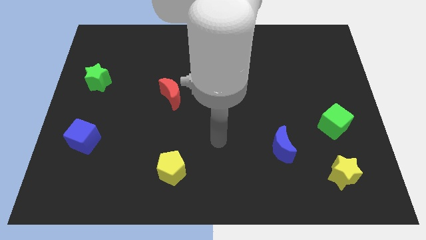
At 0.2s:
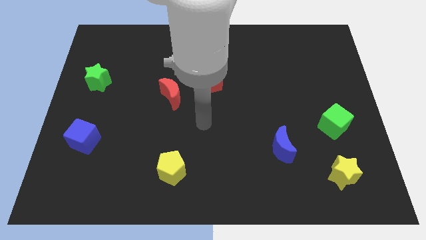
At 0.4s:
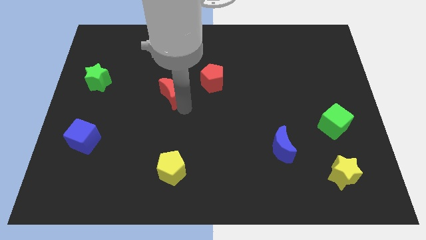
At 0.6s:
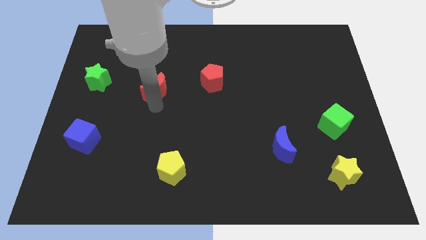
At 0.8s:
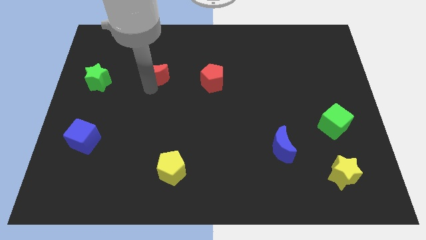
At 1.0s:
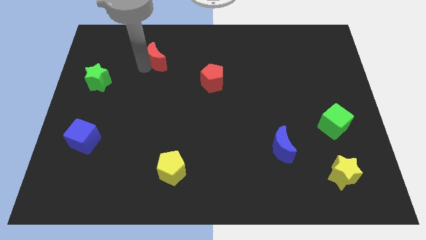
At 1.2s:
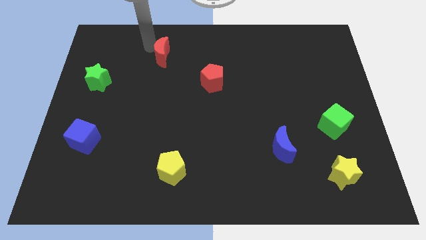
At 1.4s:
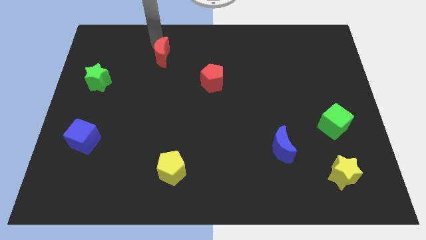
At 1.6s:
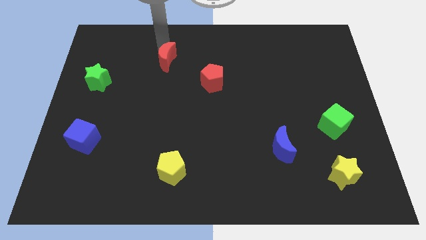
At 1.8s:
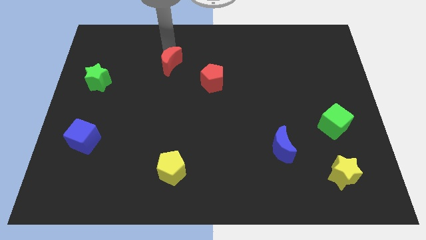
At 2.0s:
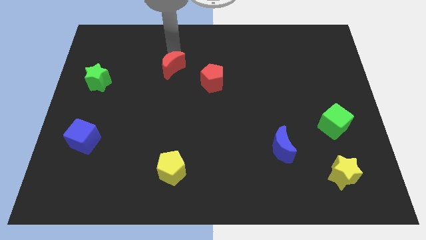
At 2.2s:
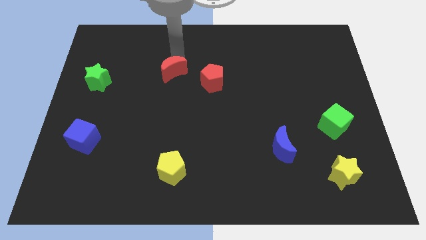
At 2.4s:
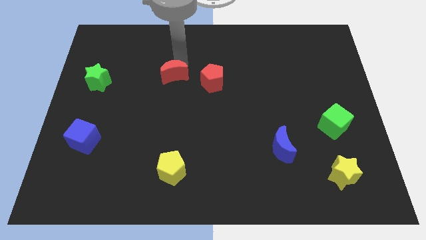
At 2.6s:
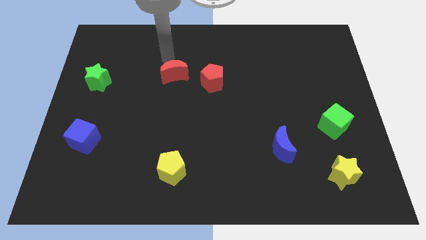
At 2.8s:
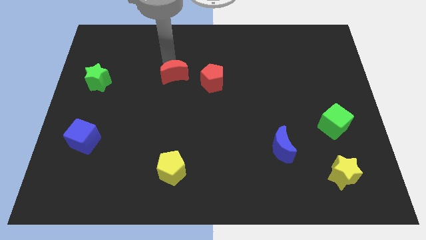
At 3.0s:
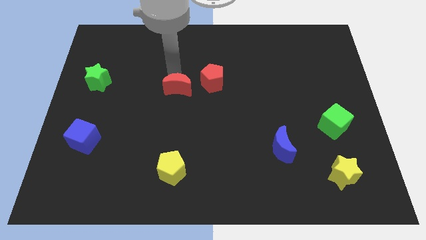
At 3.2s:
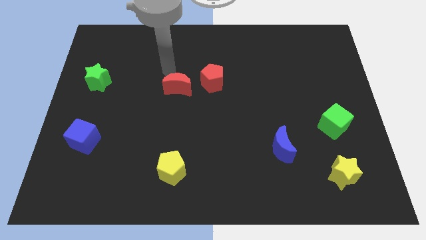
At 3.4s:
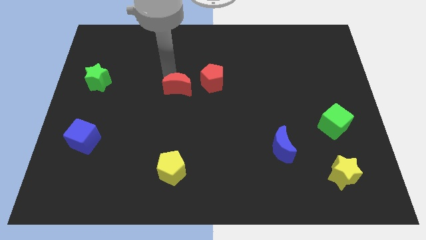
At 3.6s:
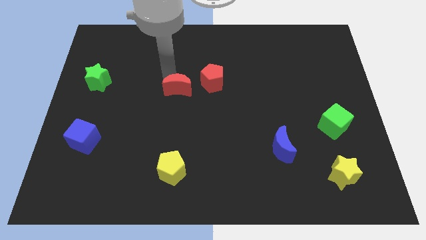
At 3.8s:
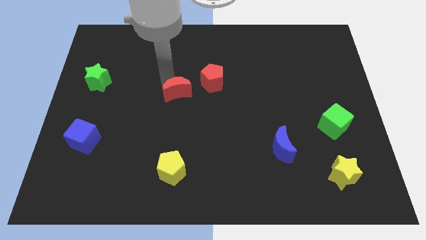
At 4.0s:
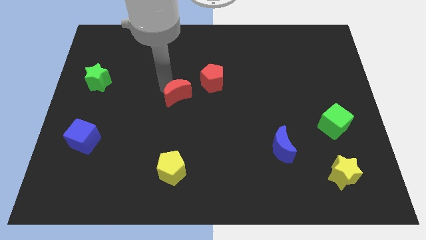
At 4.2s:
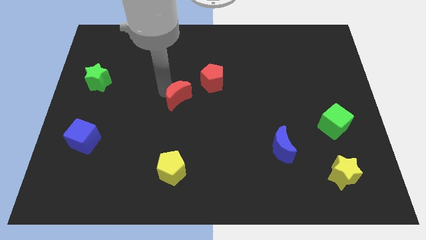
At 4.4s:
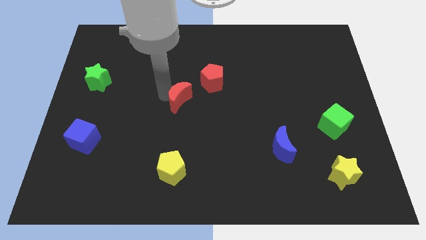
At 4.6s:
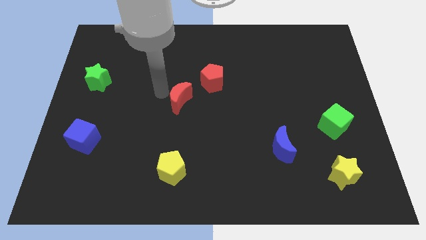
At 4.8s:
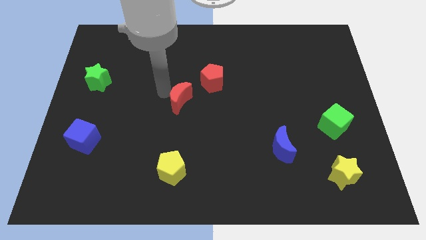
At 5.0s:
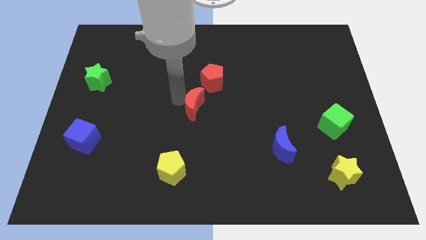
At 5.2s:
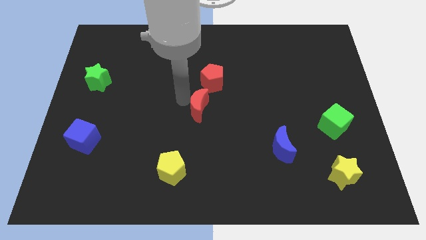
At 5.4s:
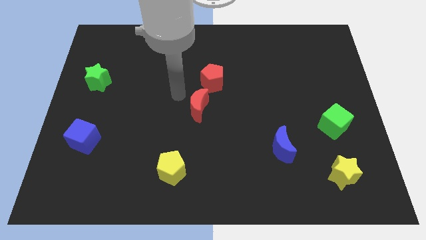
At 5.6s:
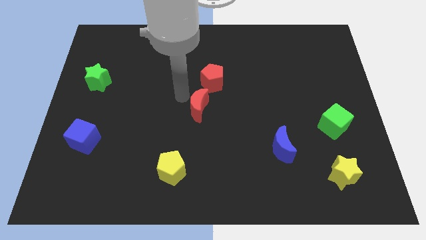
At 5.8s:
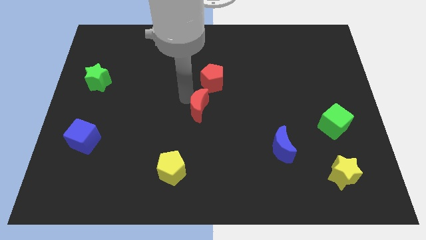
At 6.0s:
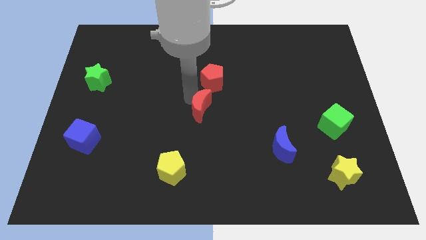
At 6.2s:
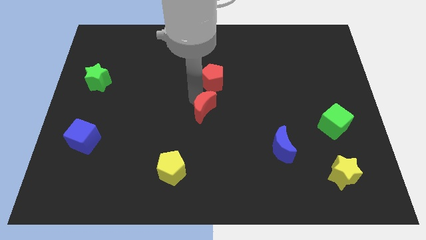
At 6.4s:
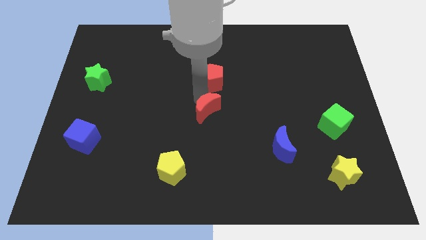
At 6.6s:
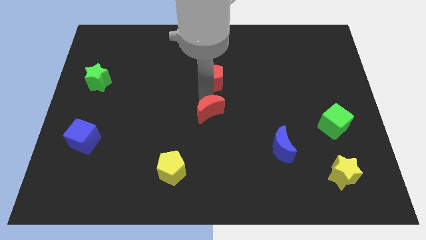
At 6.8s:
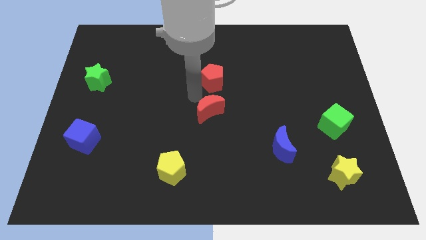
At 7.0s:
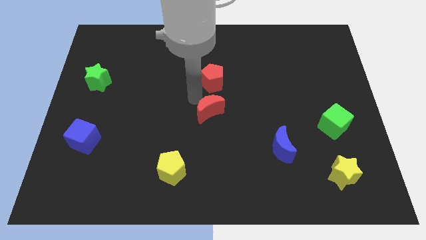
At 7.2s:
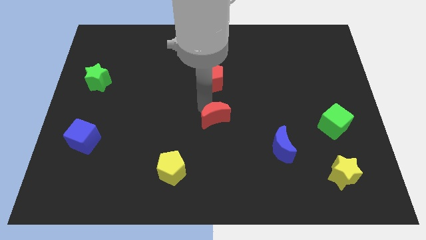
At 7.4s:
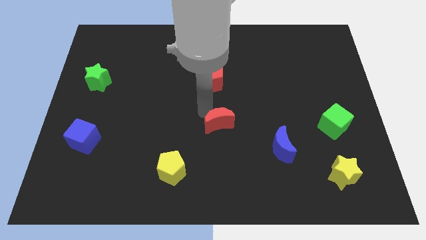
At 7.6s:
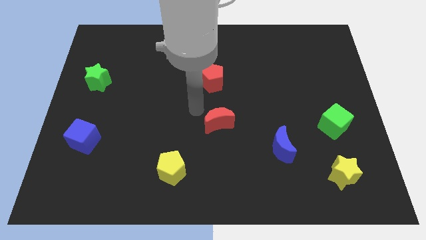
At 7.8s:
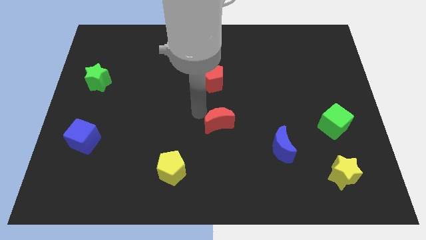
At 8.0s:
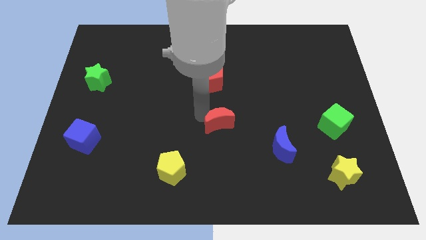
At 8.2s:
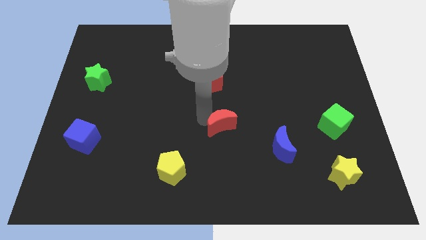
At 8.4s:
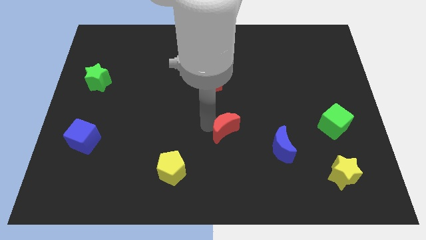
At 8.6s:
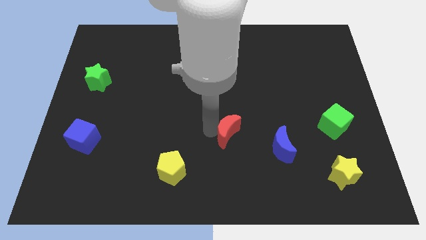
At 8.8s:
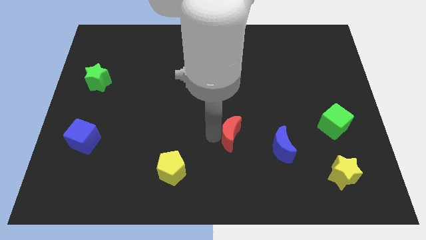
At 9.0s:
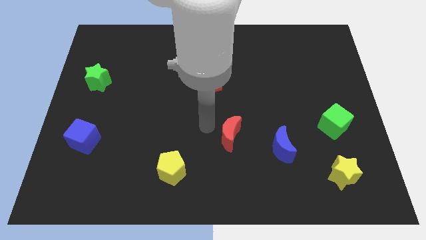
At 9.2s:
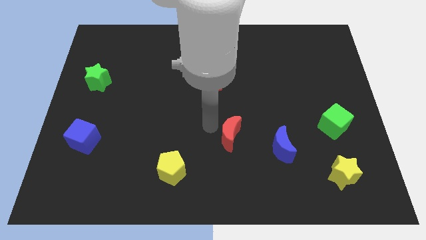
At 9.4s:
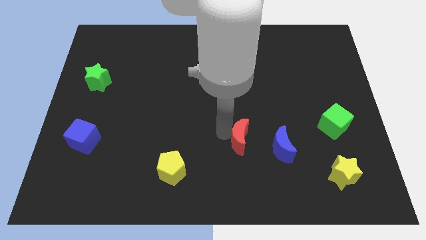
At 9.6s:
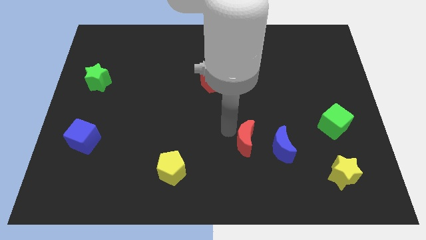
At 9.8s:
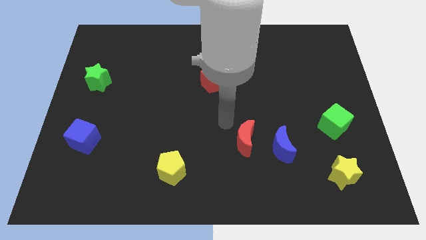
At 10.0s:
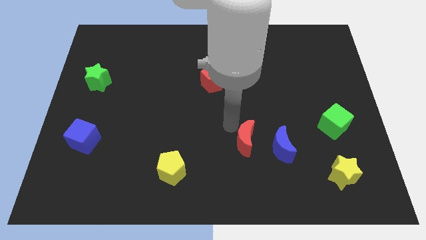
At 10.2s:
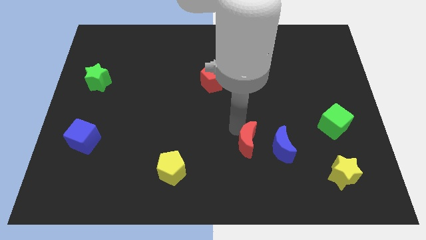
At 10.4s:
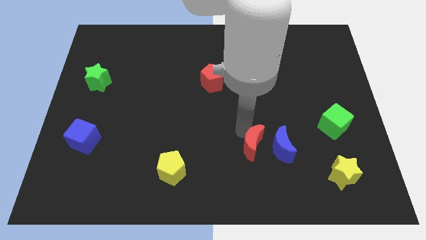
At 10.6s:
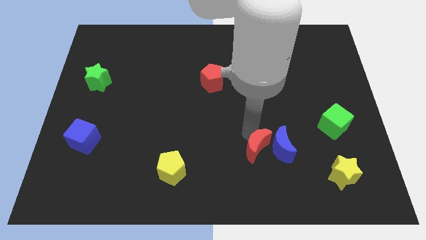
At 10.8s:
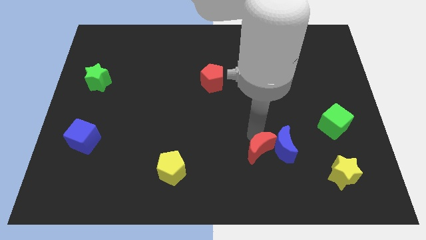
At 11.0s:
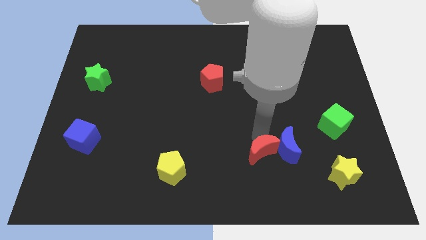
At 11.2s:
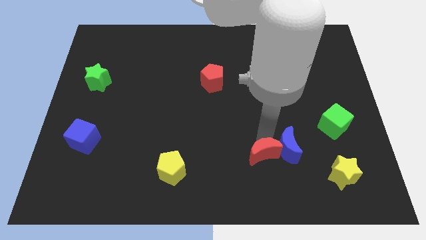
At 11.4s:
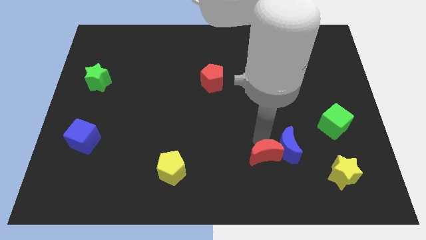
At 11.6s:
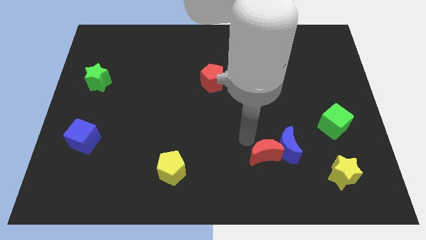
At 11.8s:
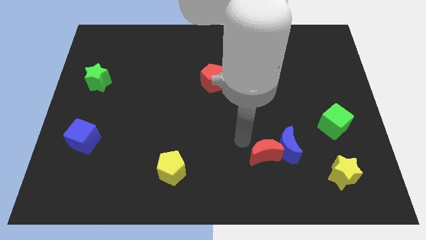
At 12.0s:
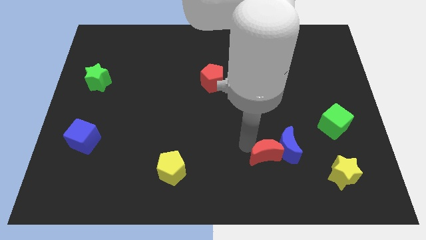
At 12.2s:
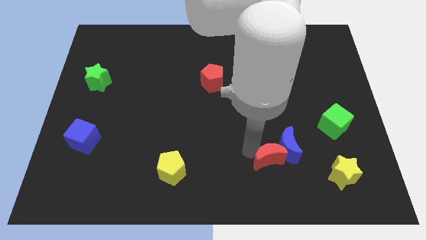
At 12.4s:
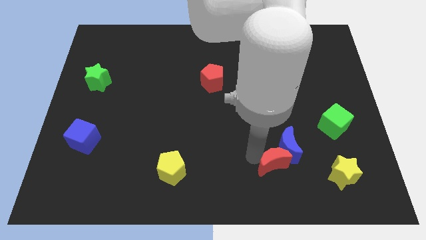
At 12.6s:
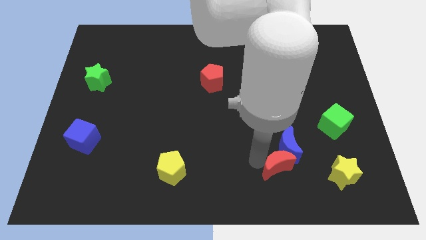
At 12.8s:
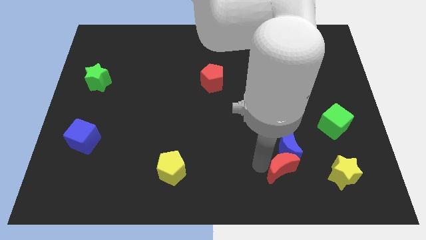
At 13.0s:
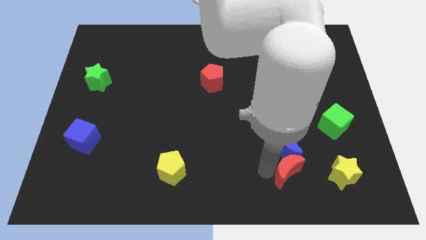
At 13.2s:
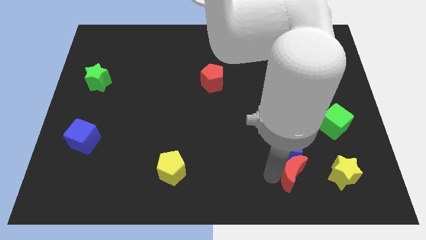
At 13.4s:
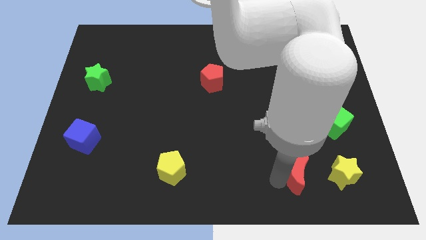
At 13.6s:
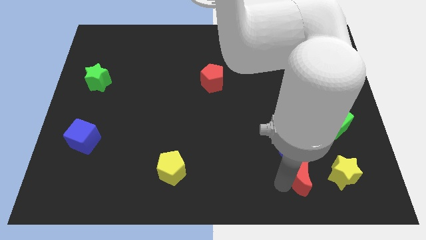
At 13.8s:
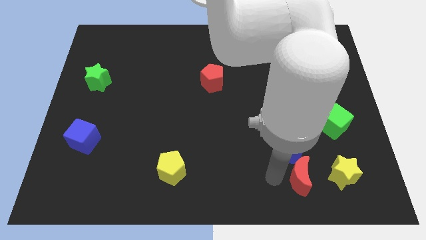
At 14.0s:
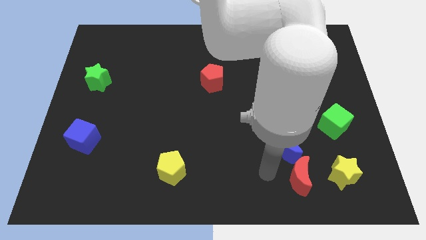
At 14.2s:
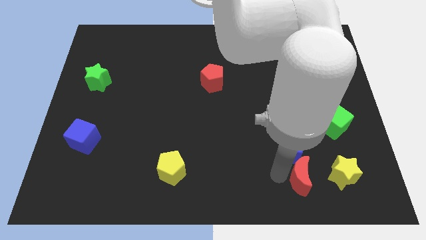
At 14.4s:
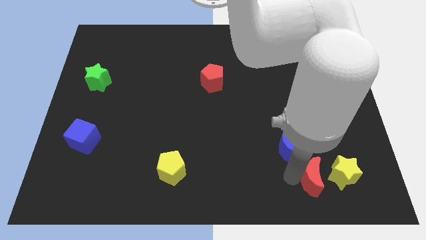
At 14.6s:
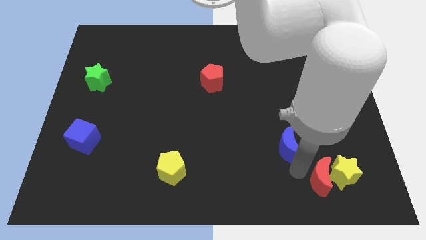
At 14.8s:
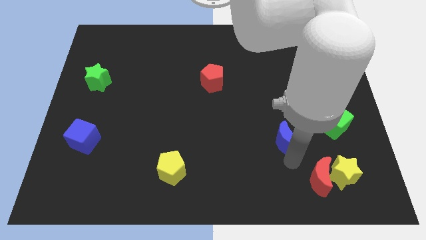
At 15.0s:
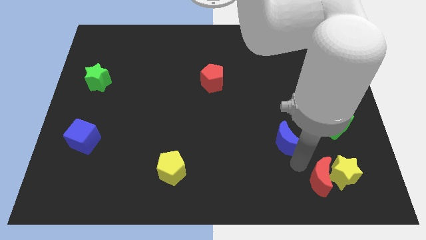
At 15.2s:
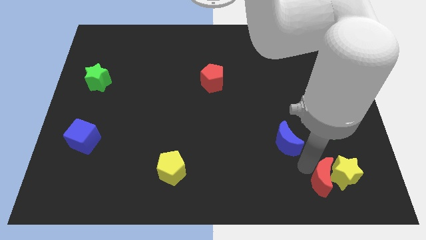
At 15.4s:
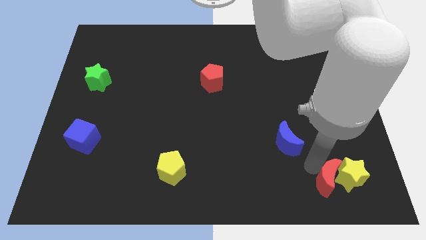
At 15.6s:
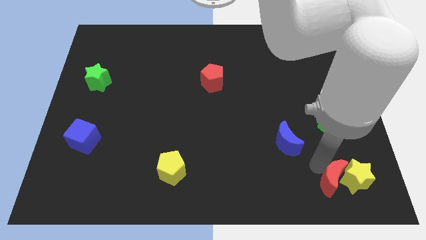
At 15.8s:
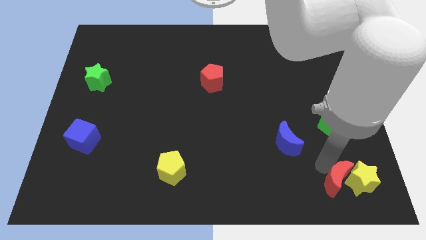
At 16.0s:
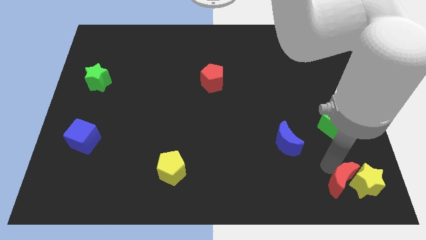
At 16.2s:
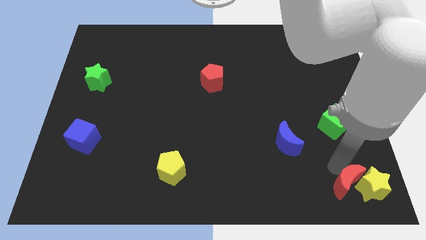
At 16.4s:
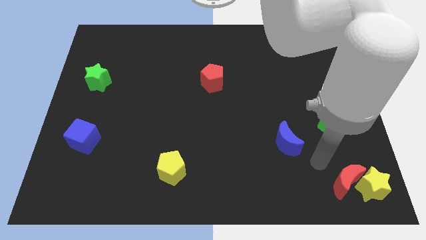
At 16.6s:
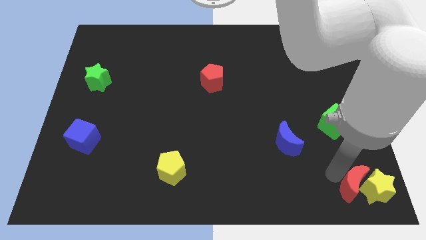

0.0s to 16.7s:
slide the red moon to the bottom right corner
